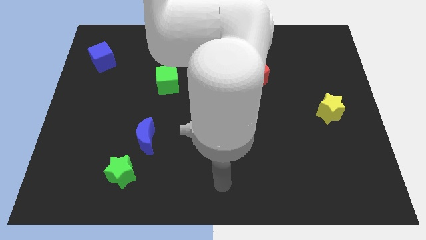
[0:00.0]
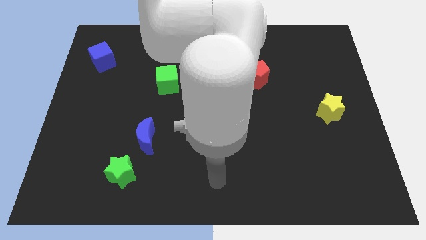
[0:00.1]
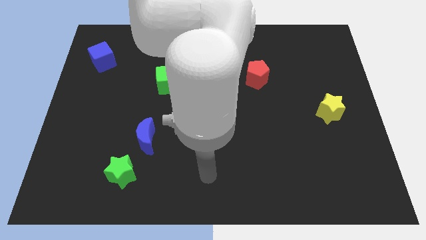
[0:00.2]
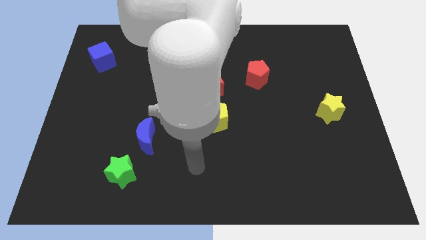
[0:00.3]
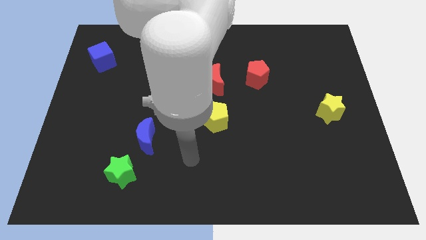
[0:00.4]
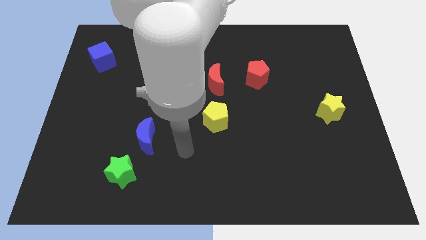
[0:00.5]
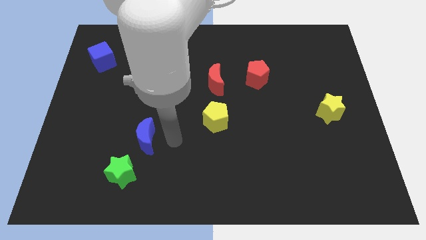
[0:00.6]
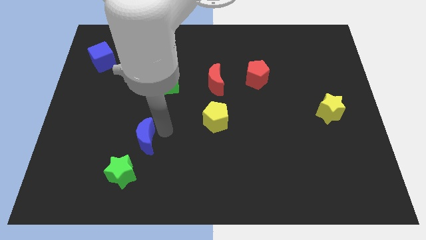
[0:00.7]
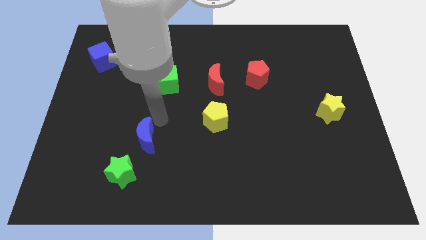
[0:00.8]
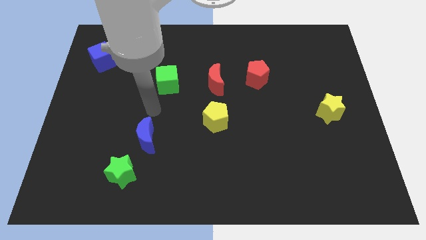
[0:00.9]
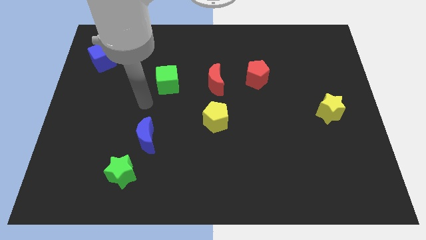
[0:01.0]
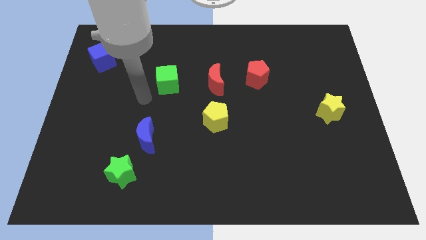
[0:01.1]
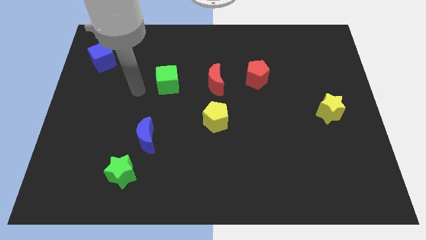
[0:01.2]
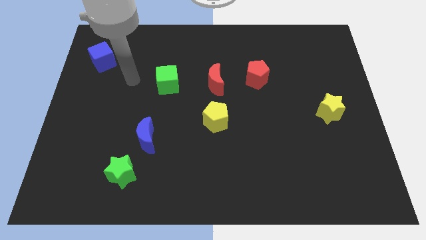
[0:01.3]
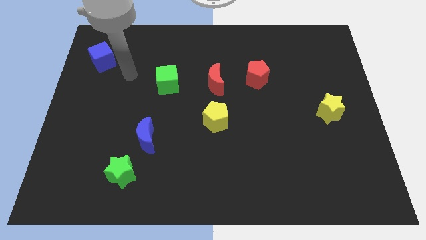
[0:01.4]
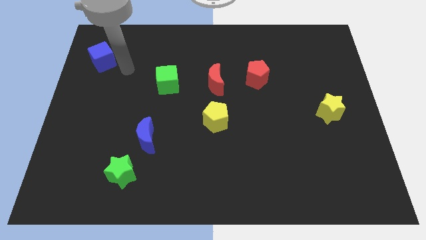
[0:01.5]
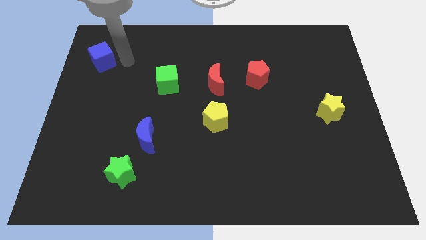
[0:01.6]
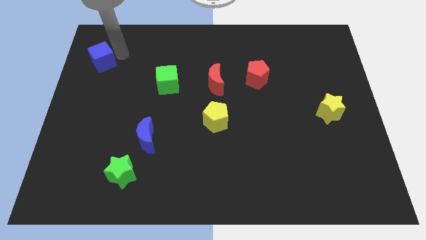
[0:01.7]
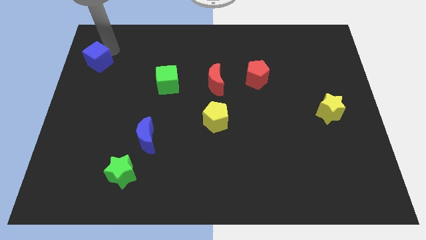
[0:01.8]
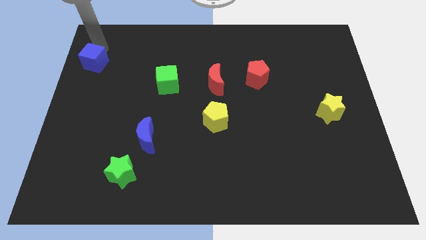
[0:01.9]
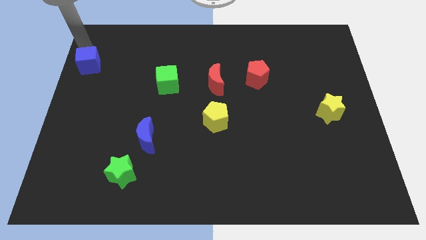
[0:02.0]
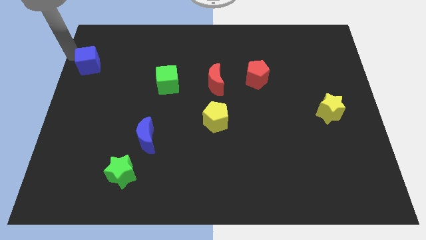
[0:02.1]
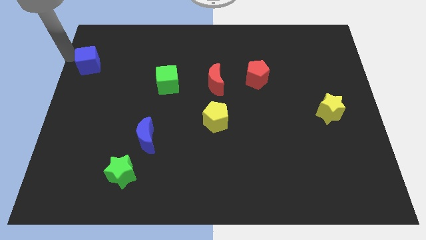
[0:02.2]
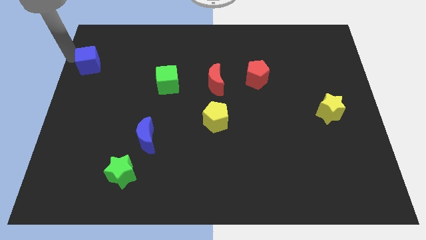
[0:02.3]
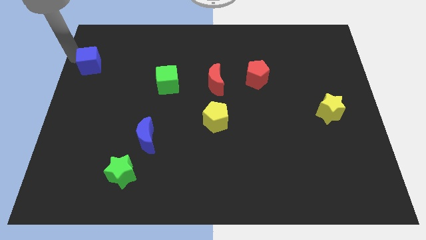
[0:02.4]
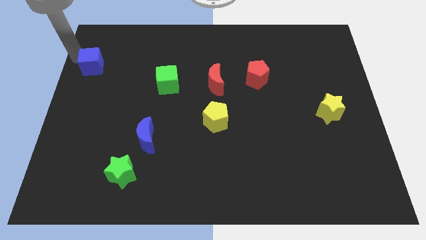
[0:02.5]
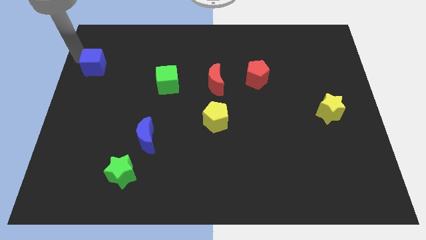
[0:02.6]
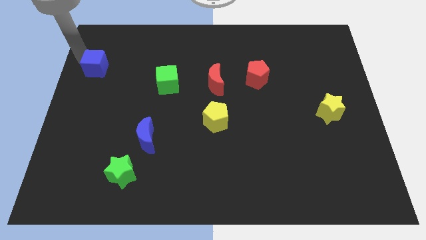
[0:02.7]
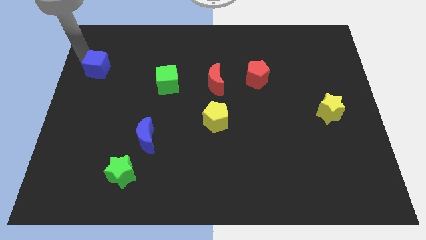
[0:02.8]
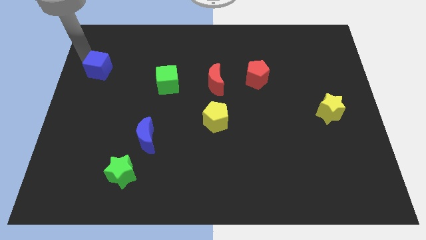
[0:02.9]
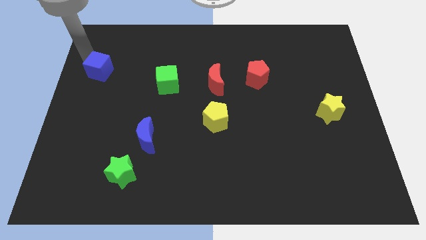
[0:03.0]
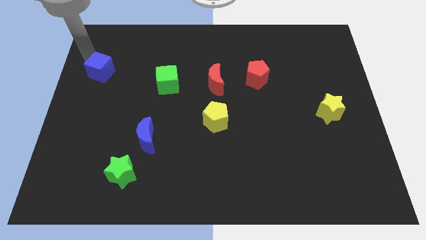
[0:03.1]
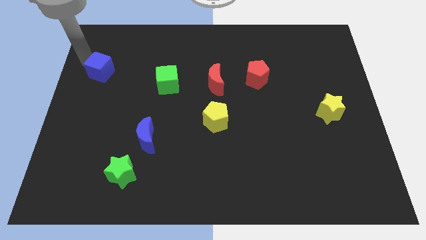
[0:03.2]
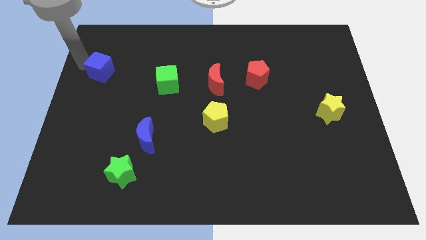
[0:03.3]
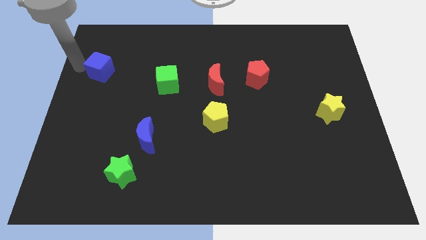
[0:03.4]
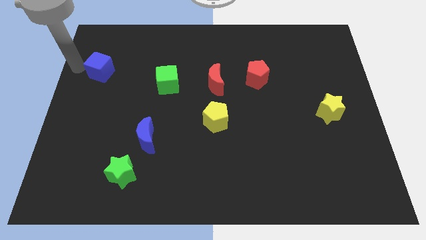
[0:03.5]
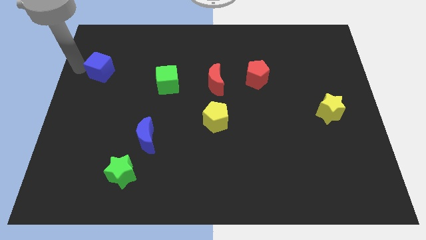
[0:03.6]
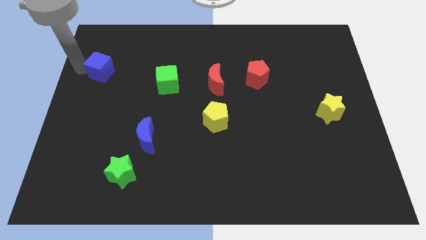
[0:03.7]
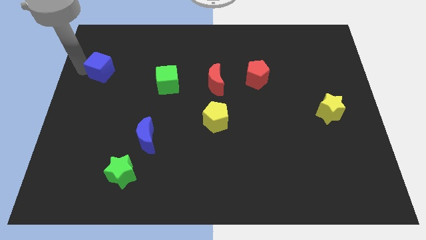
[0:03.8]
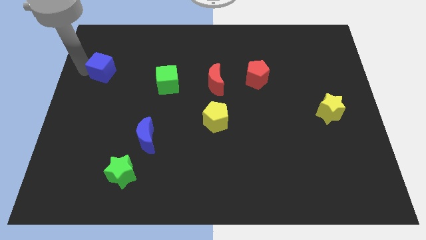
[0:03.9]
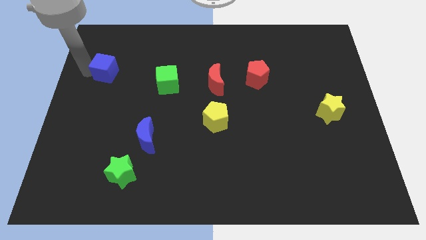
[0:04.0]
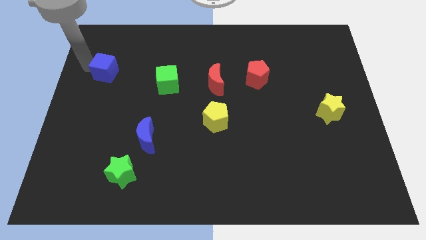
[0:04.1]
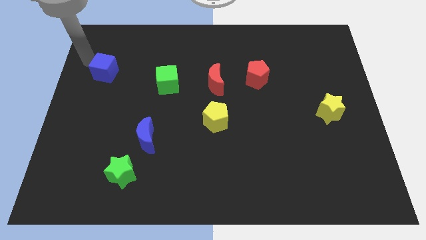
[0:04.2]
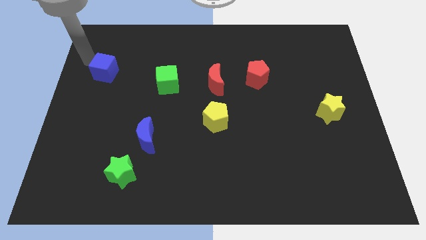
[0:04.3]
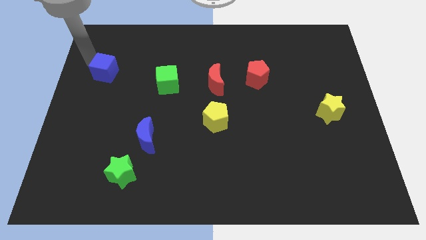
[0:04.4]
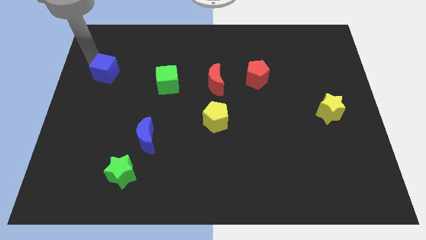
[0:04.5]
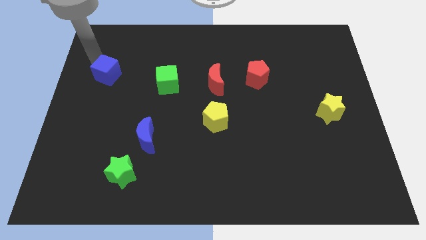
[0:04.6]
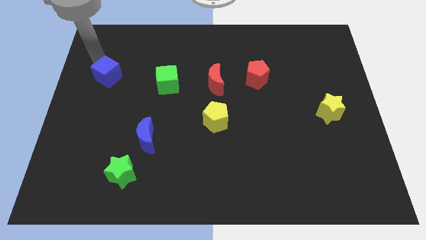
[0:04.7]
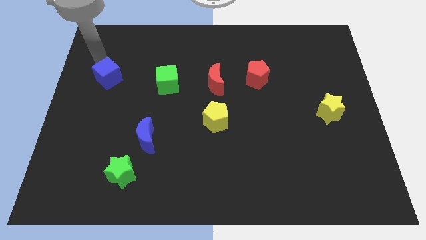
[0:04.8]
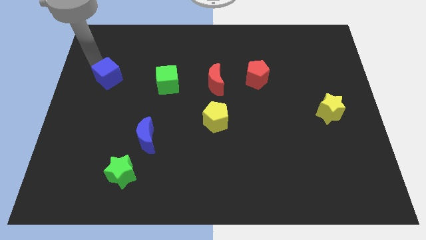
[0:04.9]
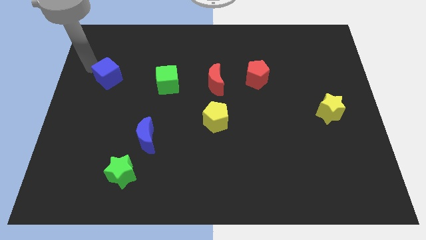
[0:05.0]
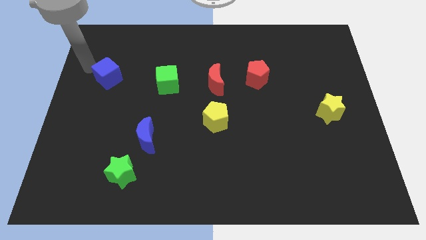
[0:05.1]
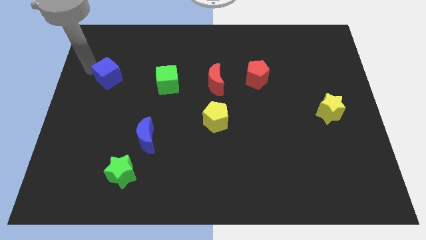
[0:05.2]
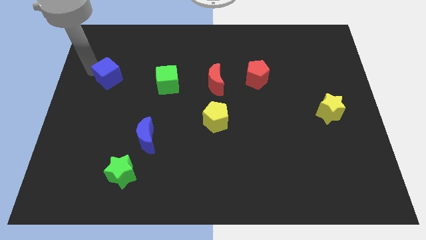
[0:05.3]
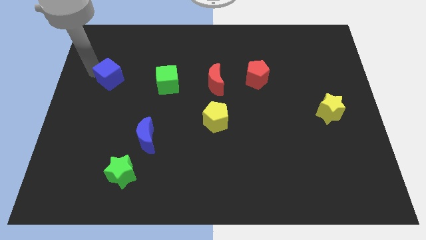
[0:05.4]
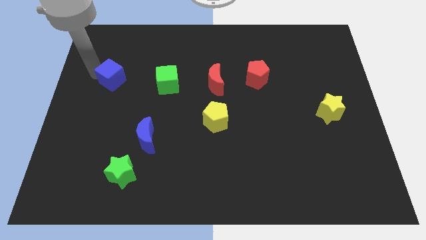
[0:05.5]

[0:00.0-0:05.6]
move the blue cube diagonally downwards and to the right somewhat

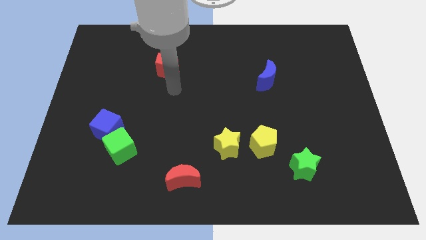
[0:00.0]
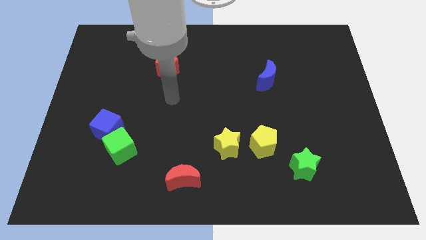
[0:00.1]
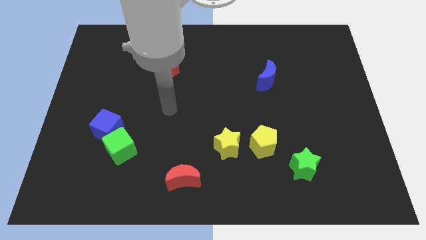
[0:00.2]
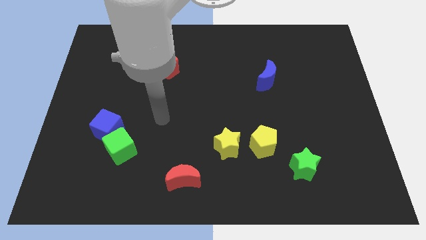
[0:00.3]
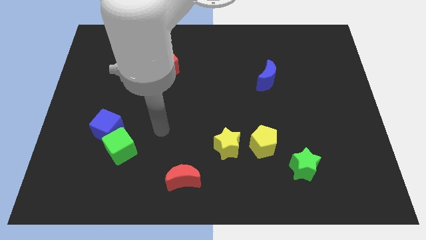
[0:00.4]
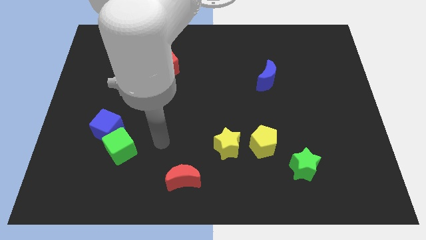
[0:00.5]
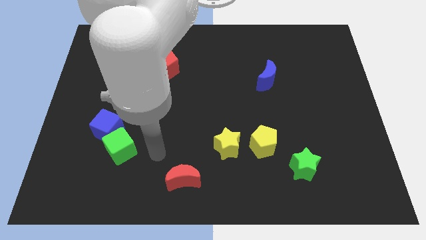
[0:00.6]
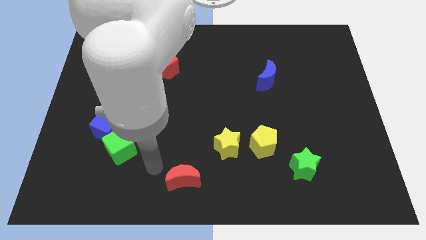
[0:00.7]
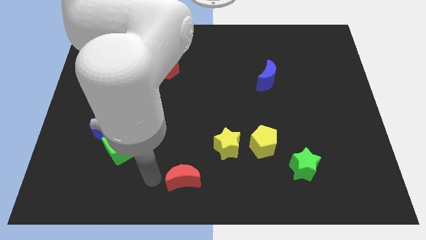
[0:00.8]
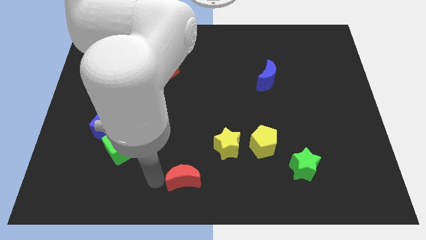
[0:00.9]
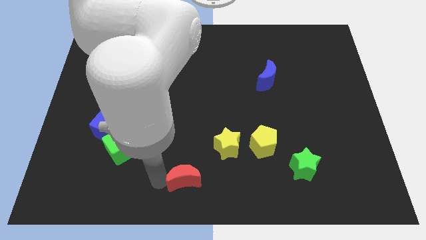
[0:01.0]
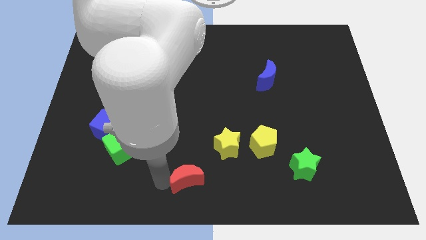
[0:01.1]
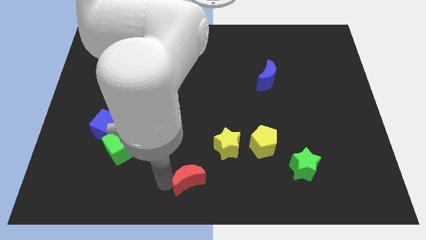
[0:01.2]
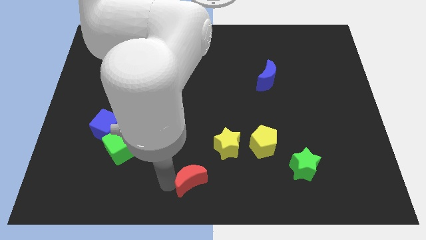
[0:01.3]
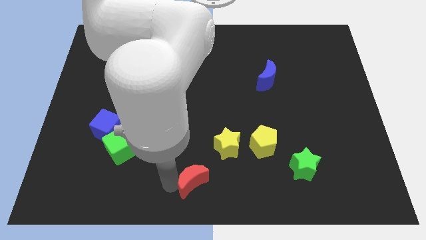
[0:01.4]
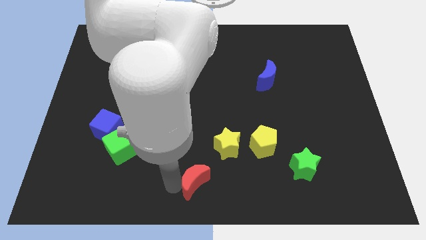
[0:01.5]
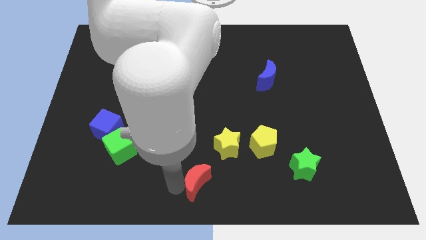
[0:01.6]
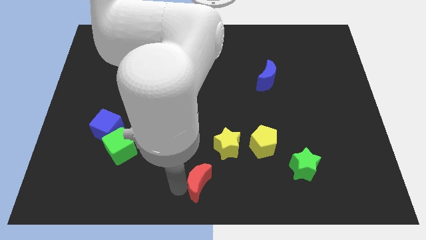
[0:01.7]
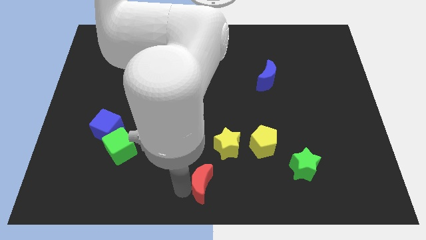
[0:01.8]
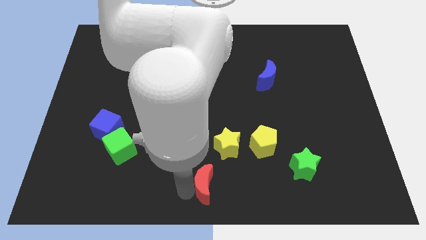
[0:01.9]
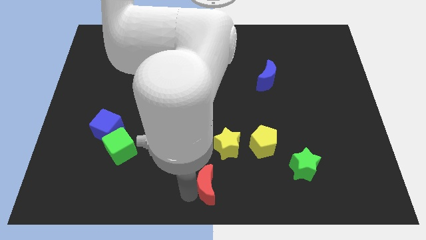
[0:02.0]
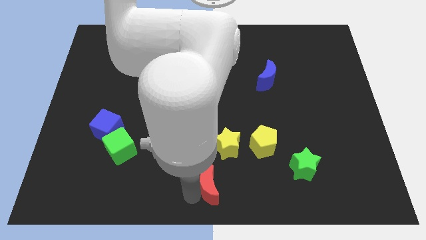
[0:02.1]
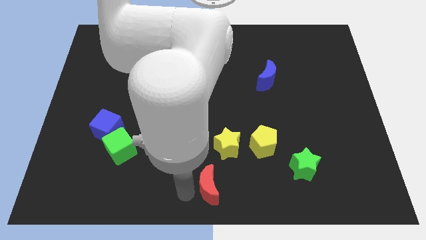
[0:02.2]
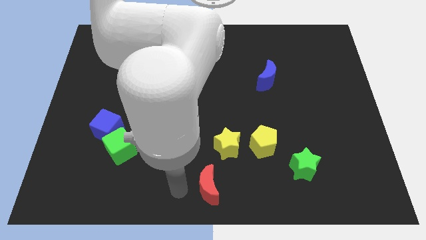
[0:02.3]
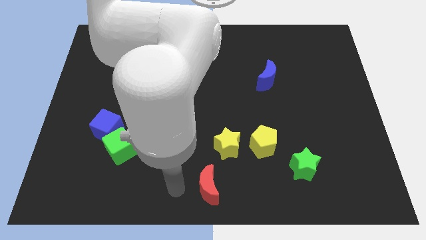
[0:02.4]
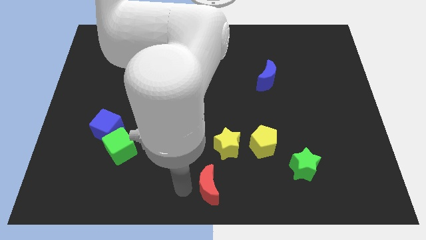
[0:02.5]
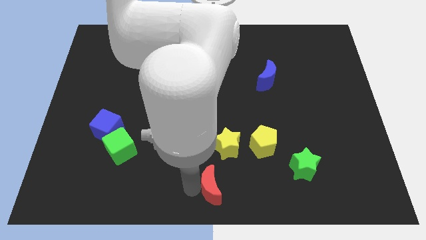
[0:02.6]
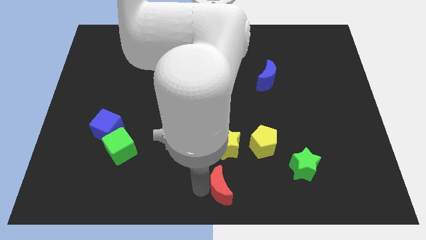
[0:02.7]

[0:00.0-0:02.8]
slide the red moon slightly right
